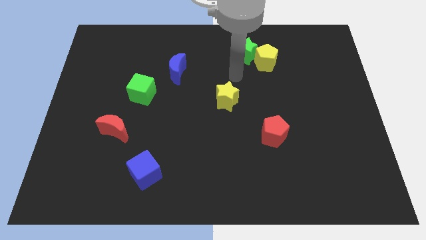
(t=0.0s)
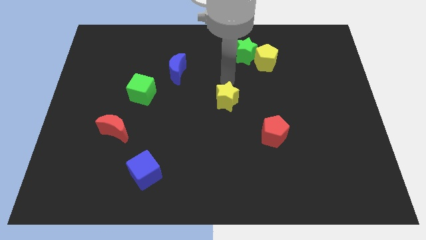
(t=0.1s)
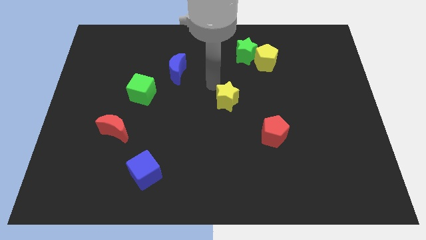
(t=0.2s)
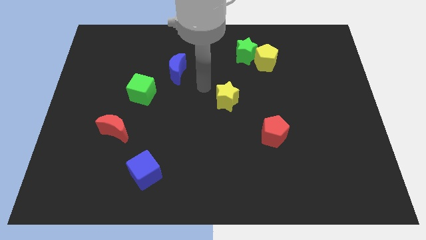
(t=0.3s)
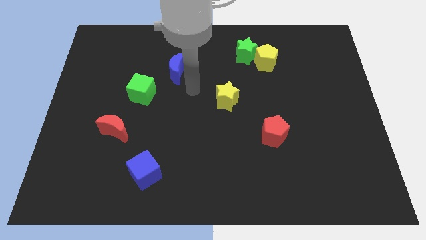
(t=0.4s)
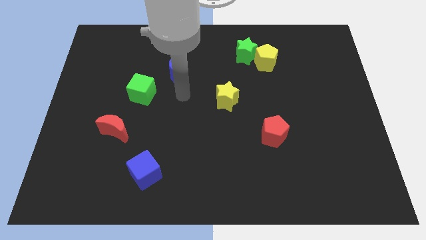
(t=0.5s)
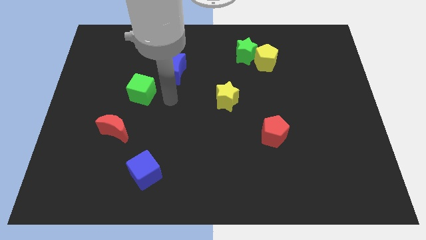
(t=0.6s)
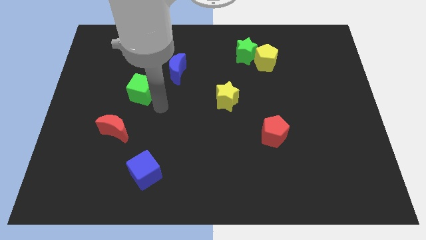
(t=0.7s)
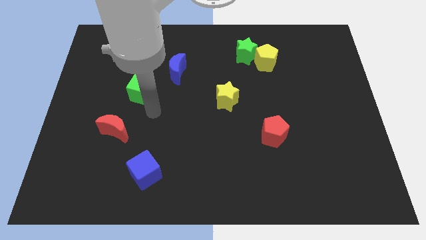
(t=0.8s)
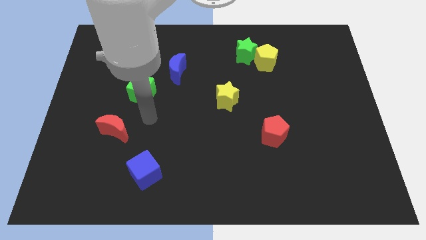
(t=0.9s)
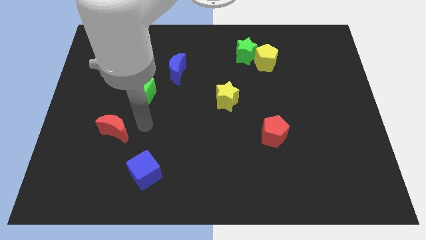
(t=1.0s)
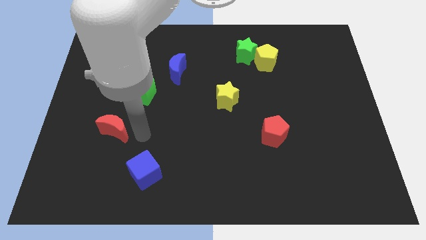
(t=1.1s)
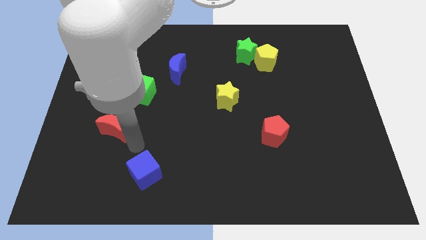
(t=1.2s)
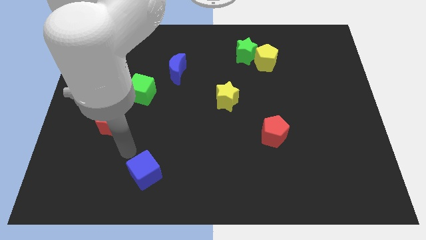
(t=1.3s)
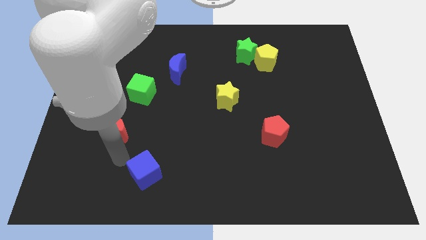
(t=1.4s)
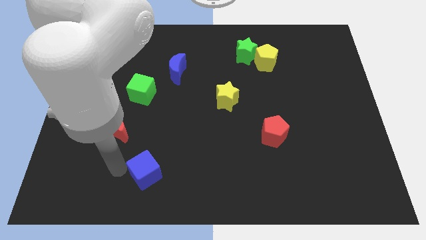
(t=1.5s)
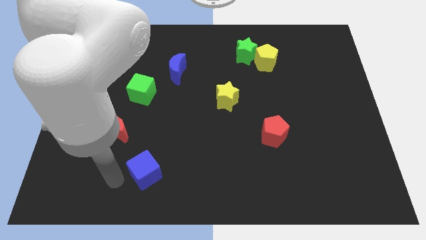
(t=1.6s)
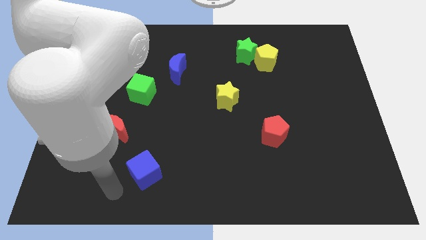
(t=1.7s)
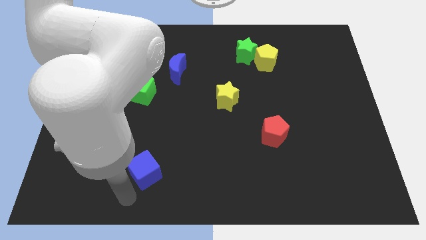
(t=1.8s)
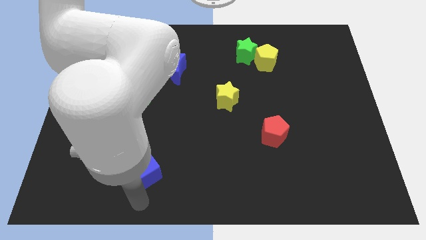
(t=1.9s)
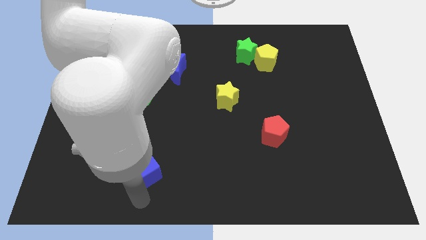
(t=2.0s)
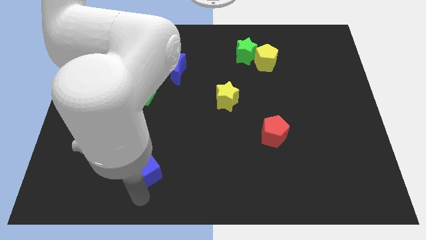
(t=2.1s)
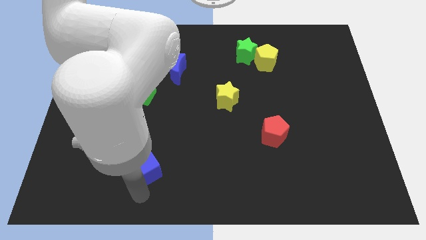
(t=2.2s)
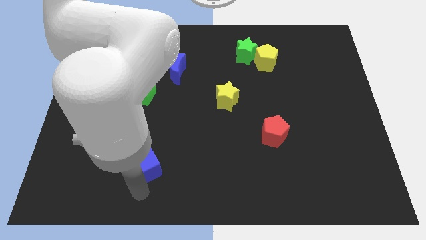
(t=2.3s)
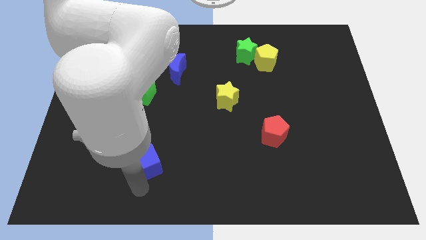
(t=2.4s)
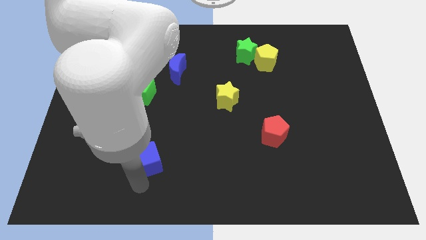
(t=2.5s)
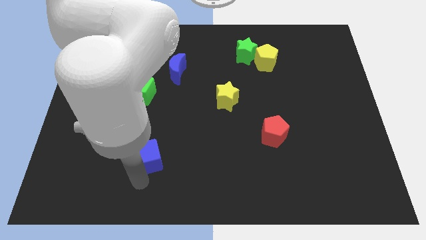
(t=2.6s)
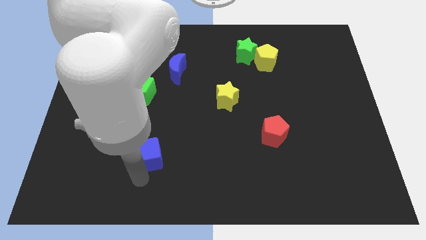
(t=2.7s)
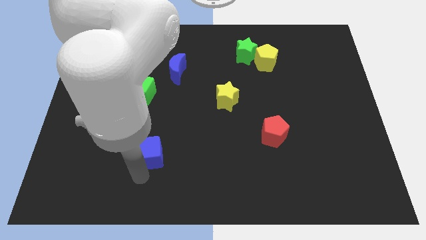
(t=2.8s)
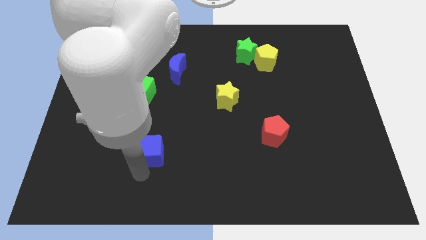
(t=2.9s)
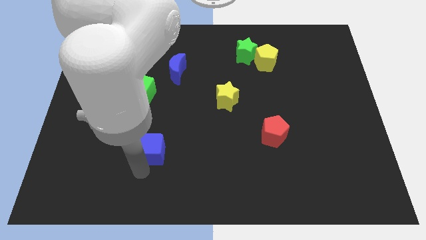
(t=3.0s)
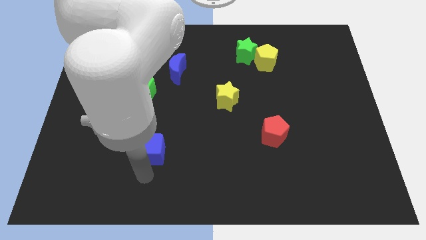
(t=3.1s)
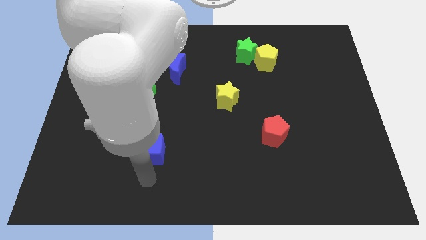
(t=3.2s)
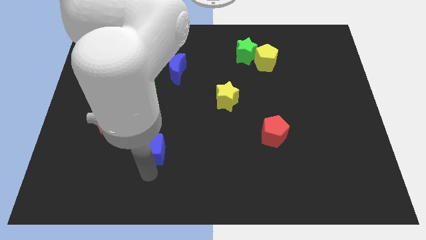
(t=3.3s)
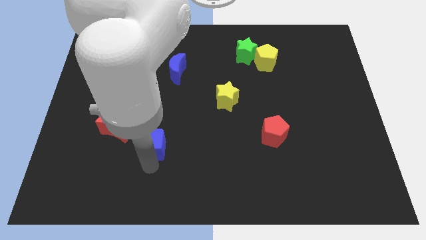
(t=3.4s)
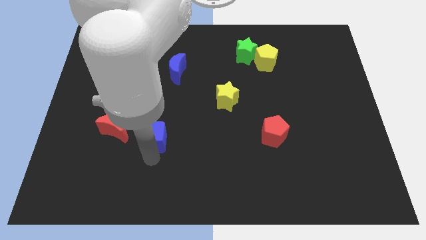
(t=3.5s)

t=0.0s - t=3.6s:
move the blue cube somewhat up

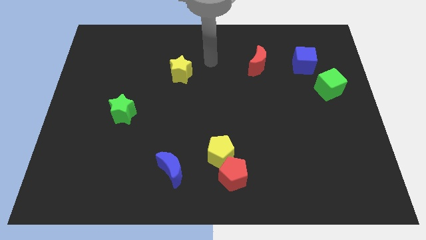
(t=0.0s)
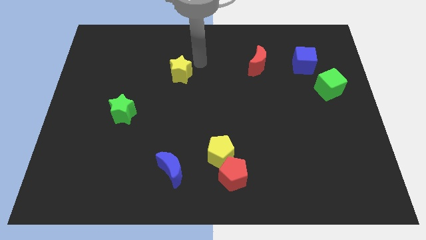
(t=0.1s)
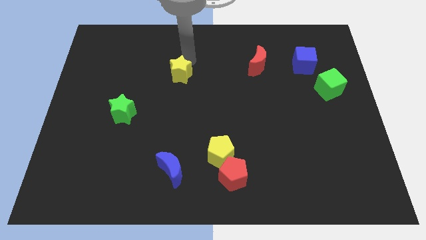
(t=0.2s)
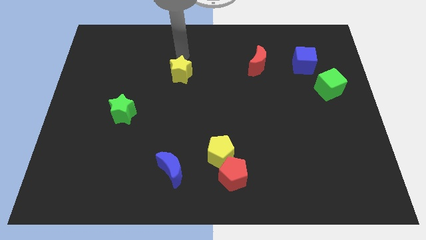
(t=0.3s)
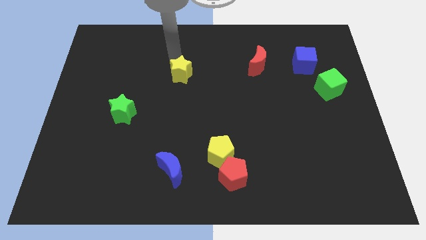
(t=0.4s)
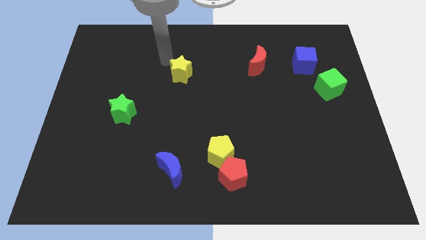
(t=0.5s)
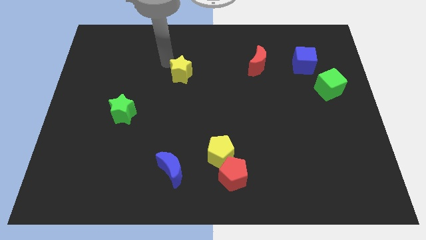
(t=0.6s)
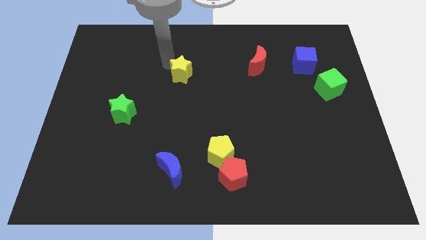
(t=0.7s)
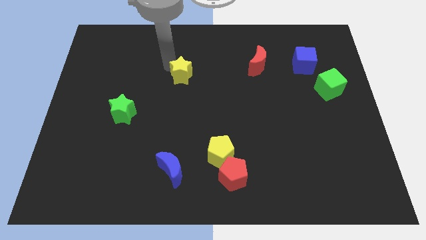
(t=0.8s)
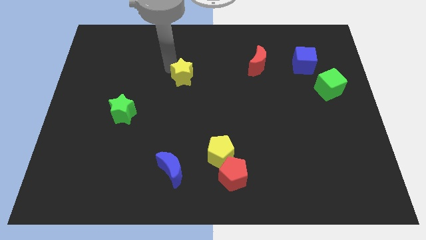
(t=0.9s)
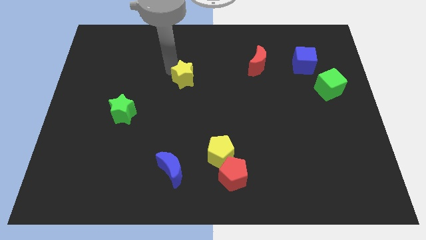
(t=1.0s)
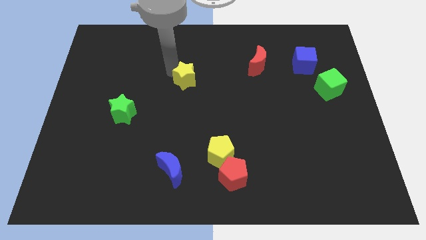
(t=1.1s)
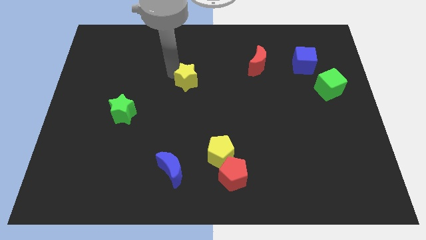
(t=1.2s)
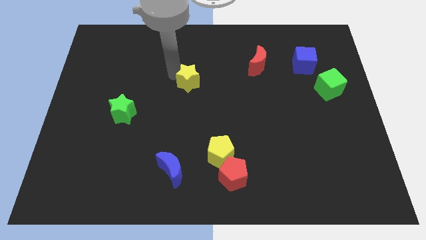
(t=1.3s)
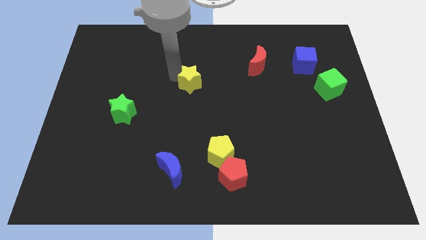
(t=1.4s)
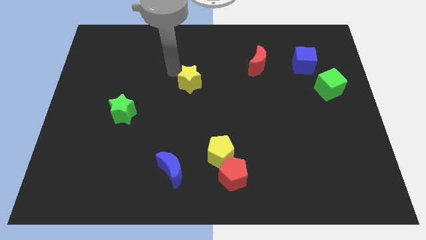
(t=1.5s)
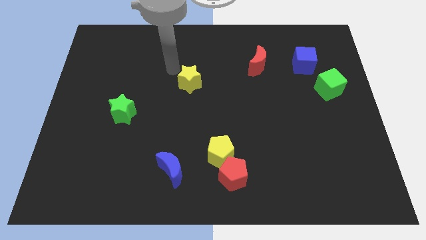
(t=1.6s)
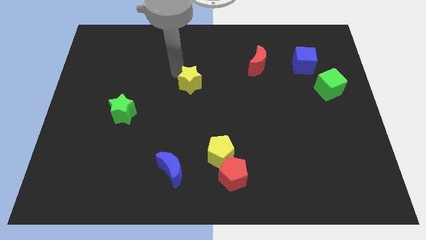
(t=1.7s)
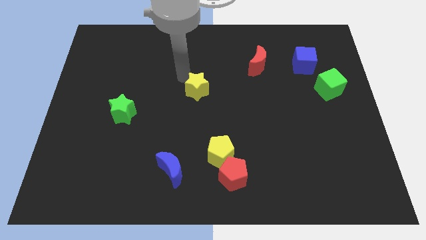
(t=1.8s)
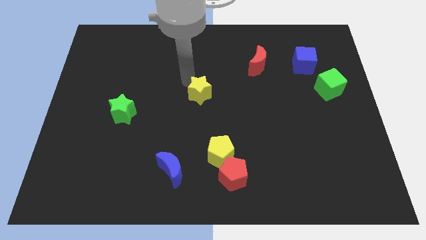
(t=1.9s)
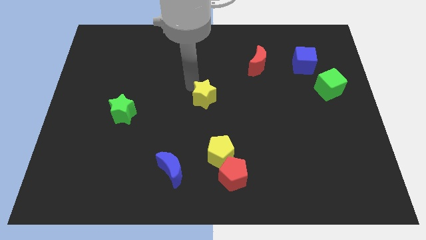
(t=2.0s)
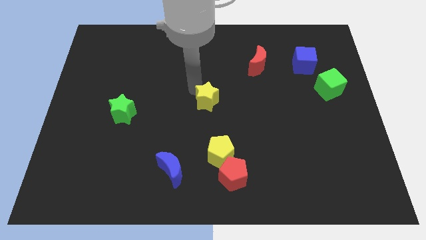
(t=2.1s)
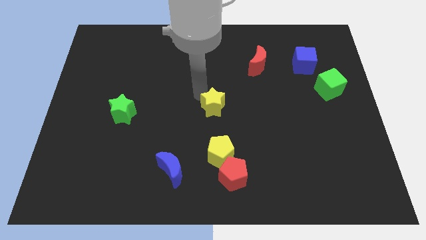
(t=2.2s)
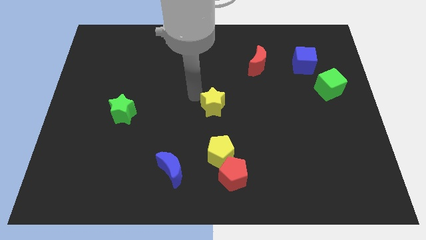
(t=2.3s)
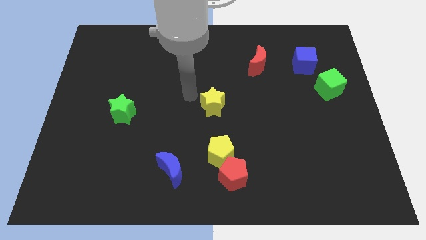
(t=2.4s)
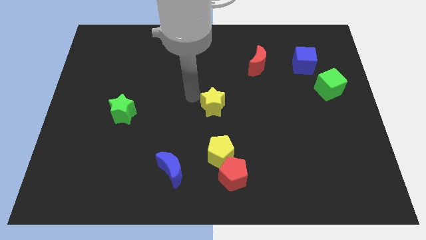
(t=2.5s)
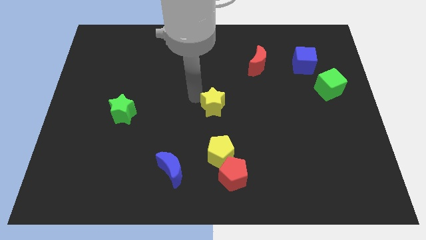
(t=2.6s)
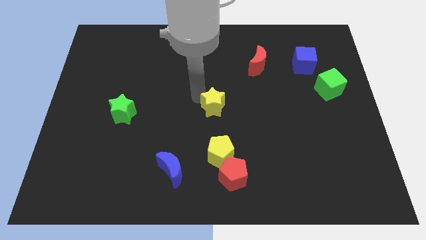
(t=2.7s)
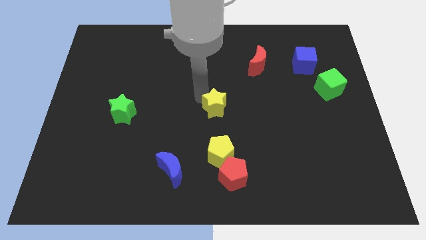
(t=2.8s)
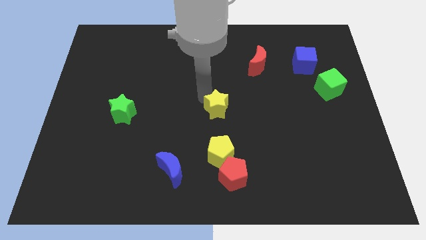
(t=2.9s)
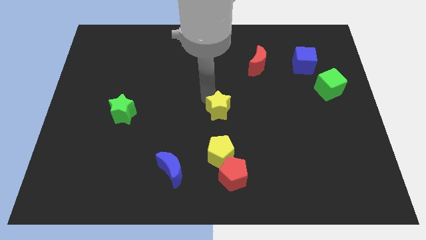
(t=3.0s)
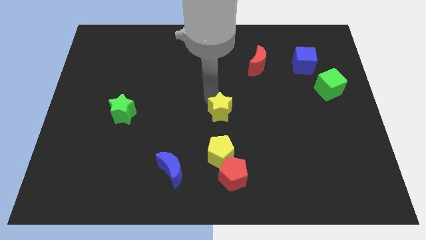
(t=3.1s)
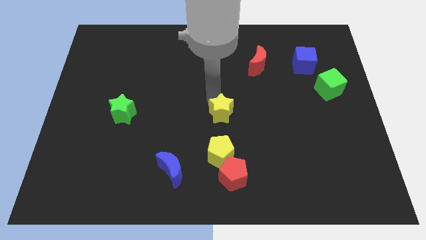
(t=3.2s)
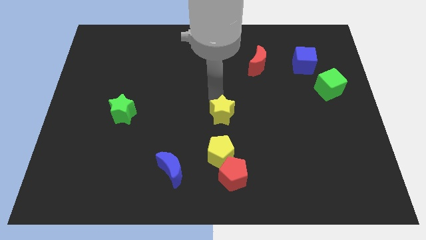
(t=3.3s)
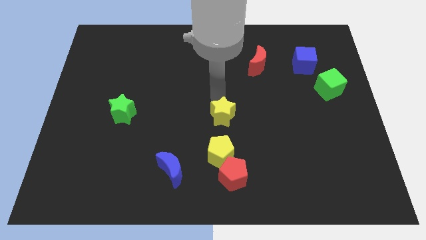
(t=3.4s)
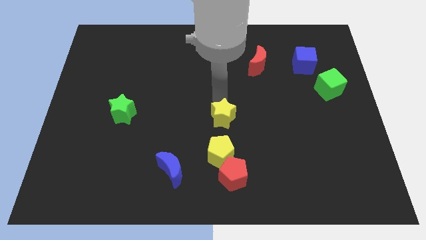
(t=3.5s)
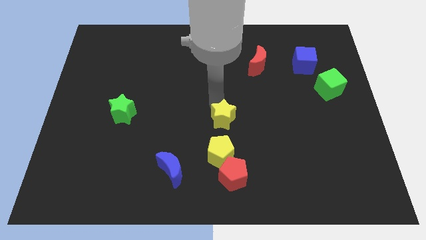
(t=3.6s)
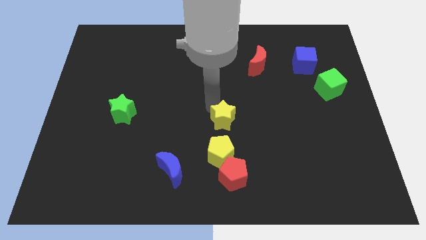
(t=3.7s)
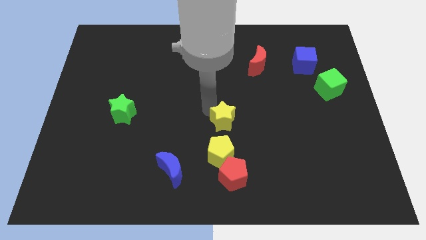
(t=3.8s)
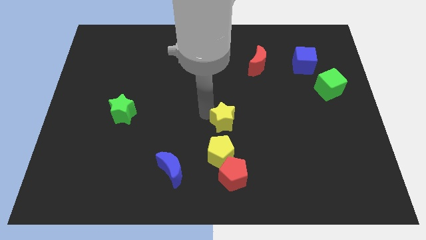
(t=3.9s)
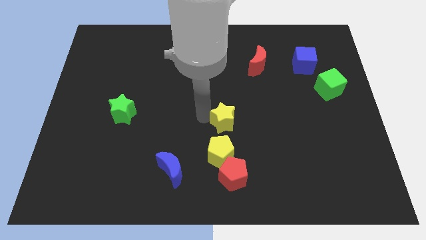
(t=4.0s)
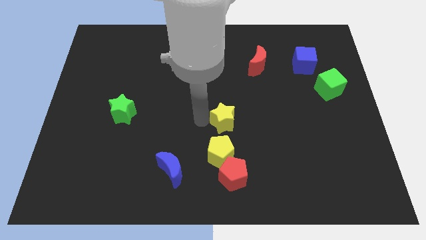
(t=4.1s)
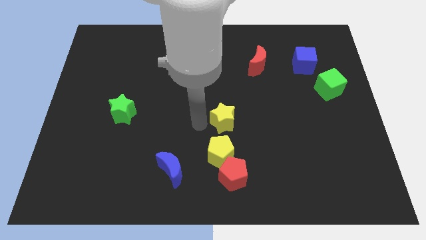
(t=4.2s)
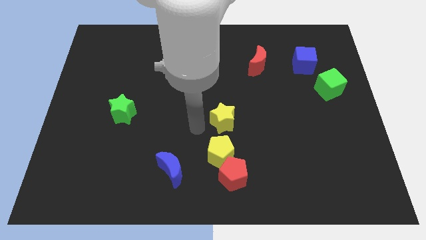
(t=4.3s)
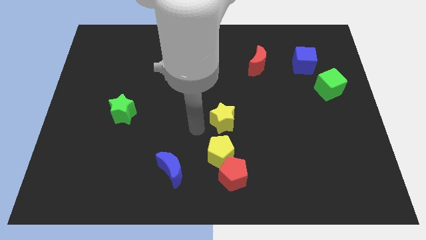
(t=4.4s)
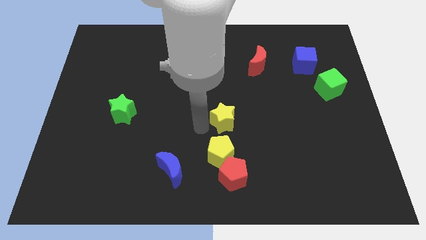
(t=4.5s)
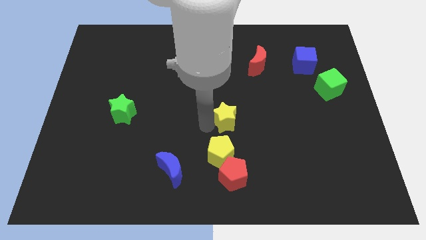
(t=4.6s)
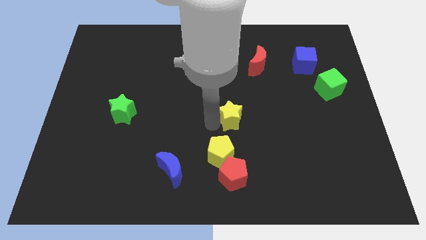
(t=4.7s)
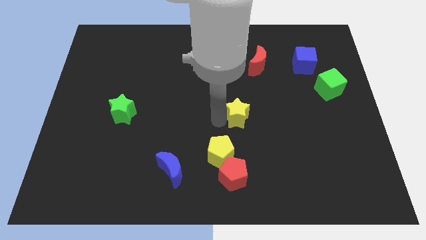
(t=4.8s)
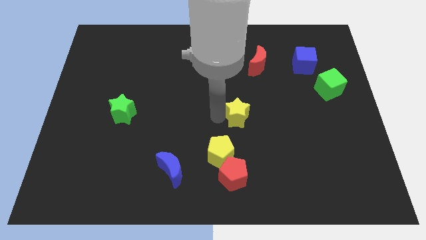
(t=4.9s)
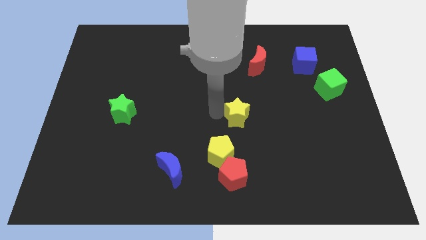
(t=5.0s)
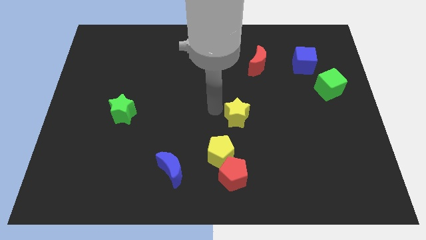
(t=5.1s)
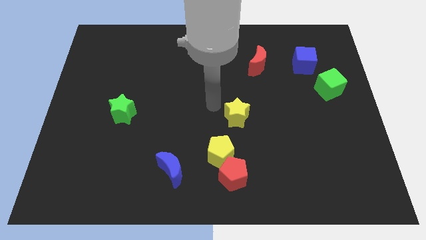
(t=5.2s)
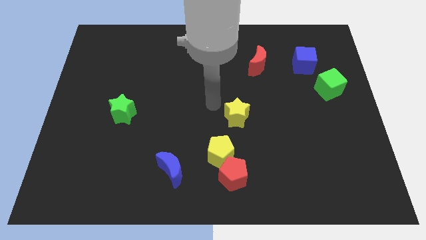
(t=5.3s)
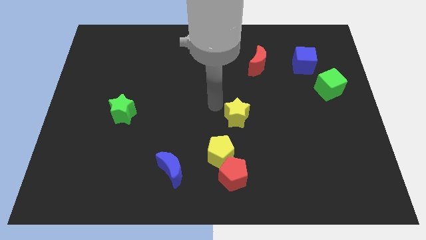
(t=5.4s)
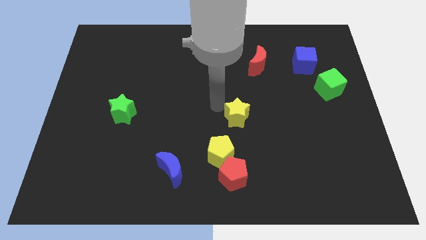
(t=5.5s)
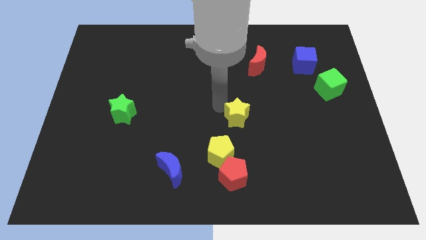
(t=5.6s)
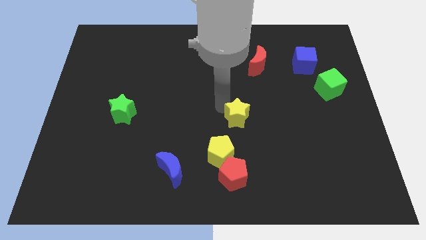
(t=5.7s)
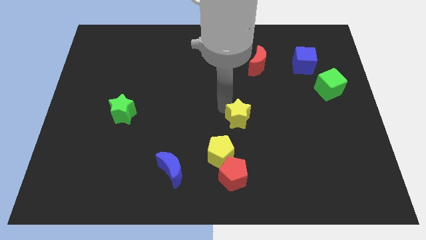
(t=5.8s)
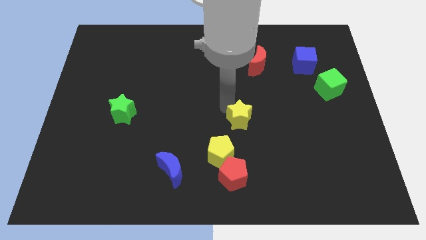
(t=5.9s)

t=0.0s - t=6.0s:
move the yellow star downwards and right
